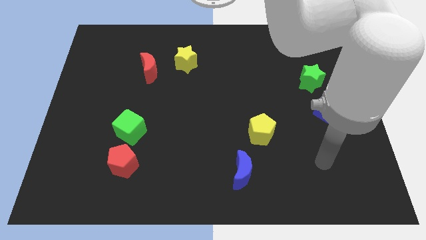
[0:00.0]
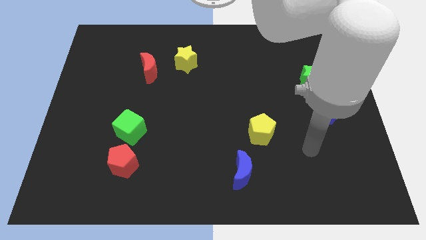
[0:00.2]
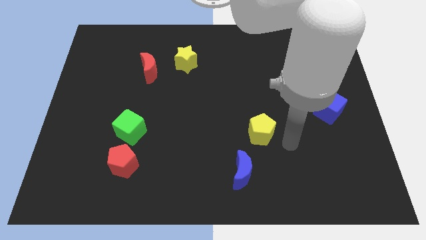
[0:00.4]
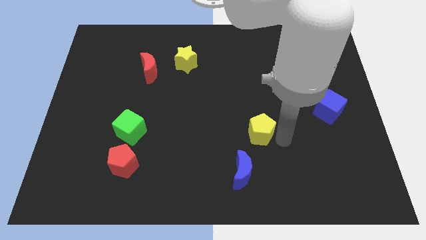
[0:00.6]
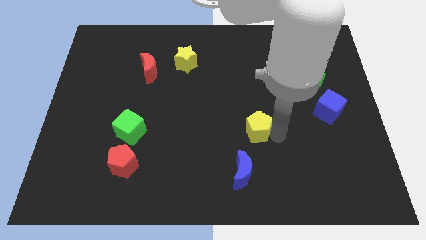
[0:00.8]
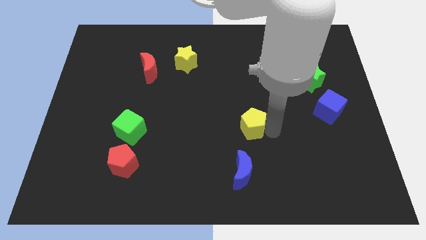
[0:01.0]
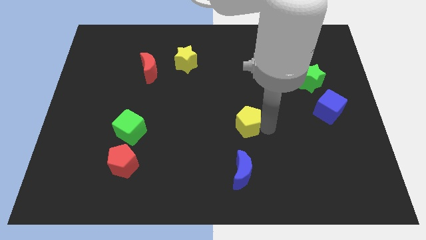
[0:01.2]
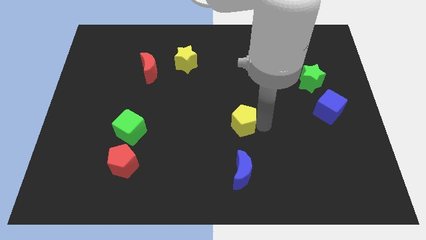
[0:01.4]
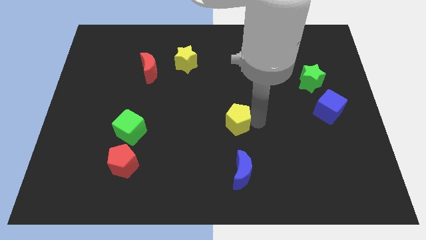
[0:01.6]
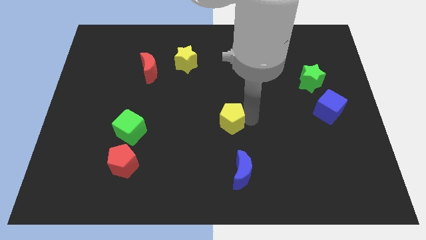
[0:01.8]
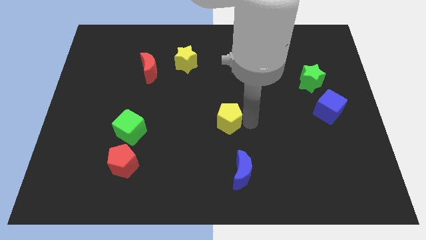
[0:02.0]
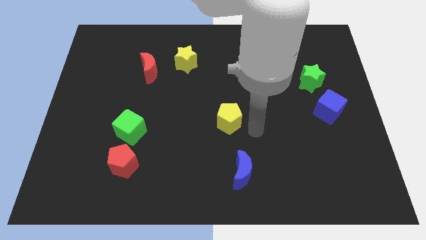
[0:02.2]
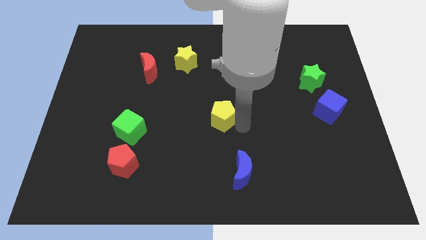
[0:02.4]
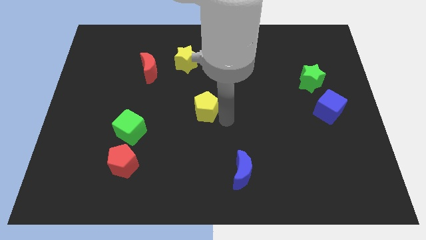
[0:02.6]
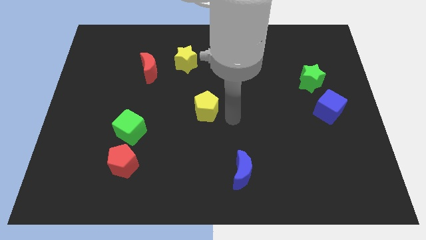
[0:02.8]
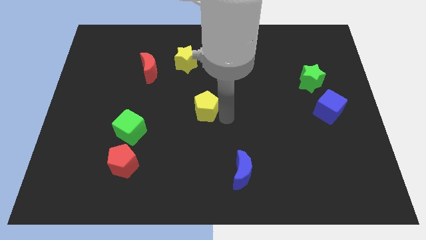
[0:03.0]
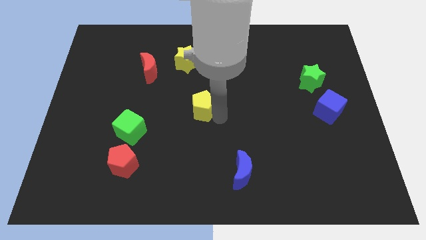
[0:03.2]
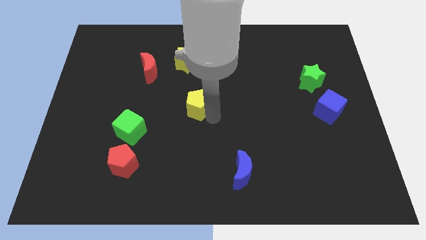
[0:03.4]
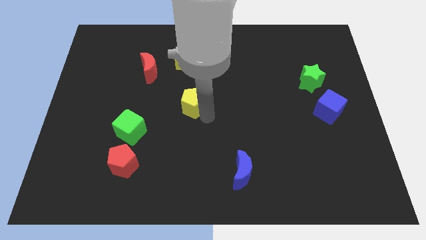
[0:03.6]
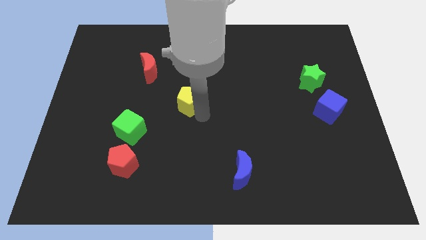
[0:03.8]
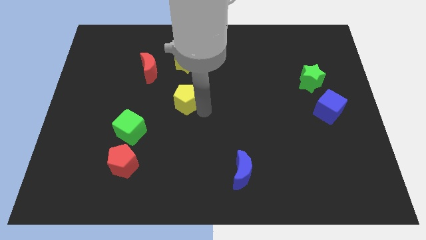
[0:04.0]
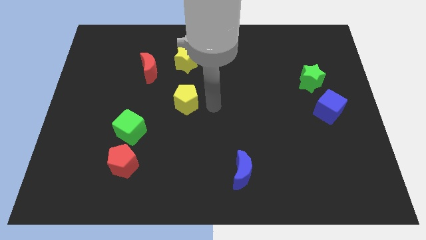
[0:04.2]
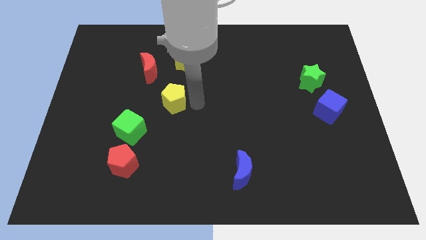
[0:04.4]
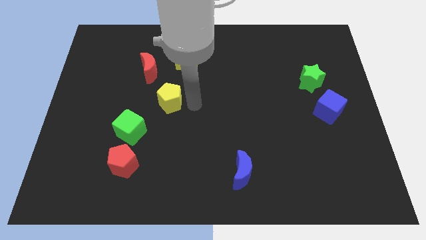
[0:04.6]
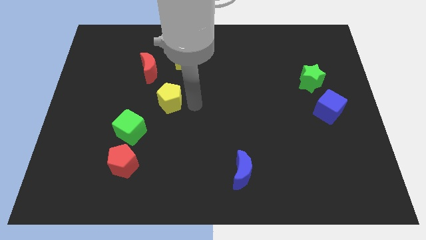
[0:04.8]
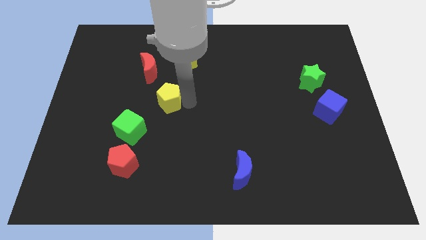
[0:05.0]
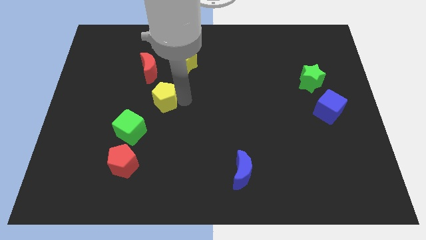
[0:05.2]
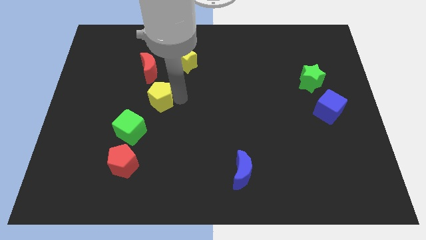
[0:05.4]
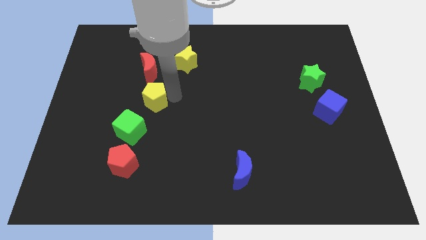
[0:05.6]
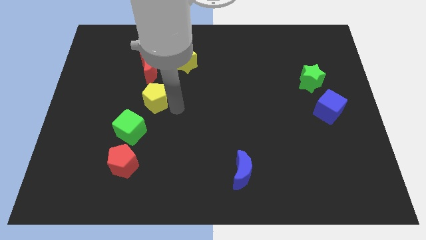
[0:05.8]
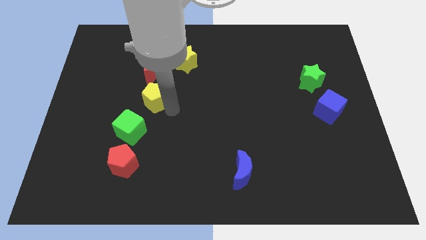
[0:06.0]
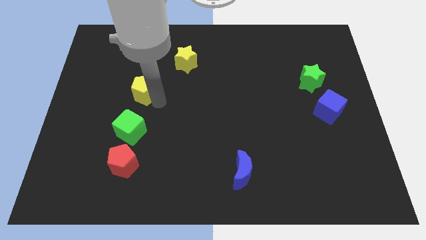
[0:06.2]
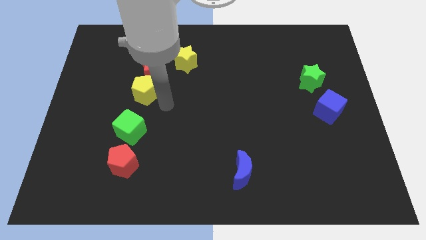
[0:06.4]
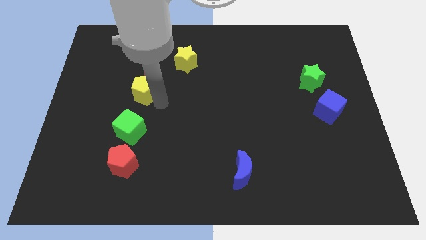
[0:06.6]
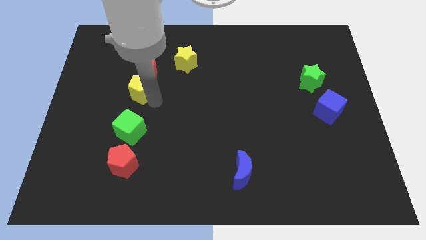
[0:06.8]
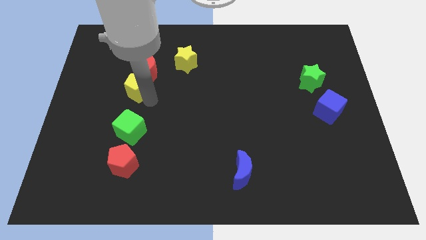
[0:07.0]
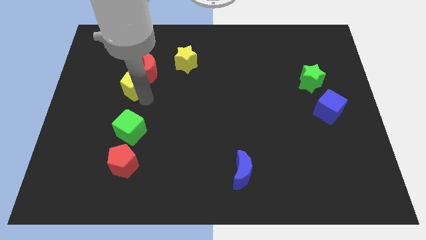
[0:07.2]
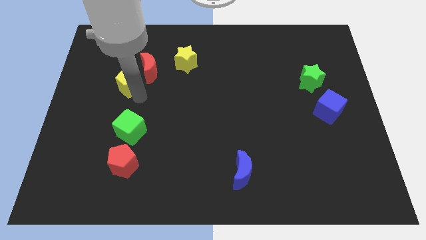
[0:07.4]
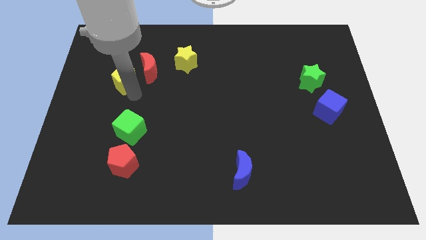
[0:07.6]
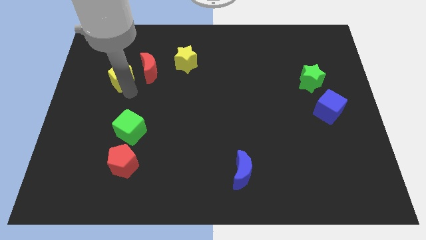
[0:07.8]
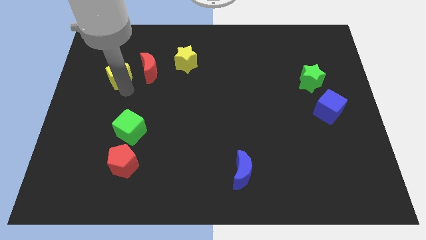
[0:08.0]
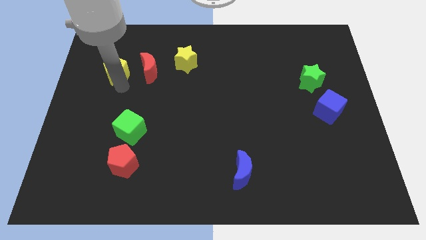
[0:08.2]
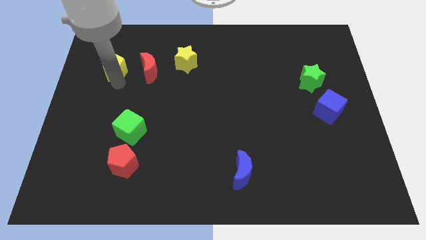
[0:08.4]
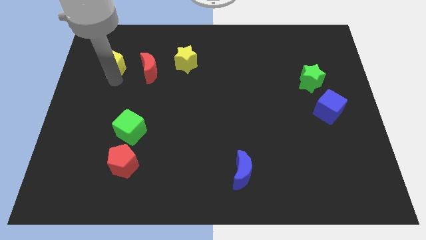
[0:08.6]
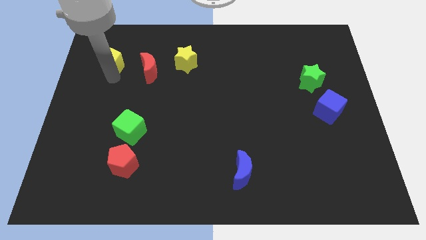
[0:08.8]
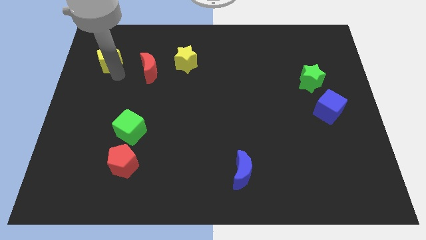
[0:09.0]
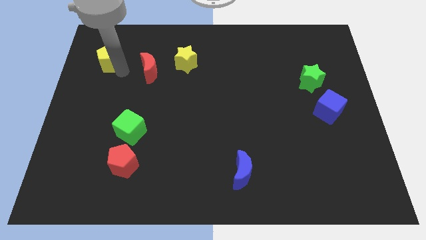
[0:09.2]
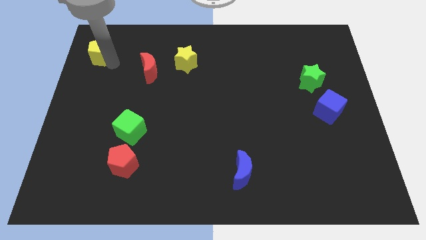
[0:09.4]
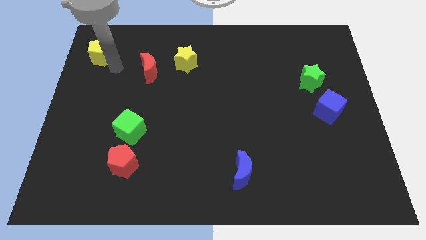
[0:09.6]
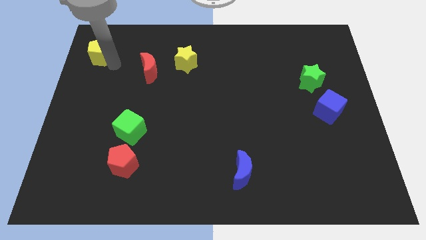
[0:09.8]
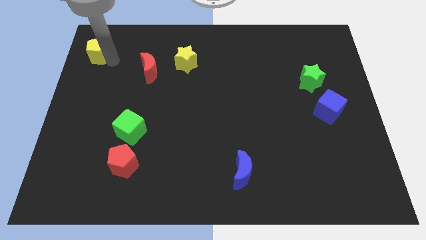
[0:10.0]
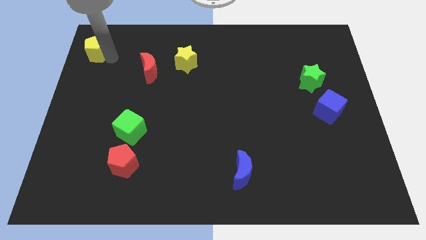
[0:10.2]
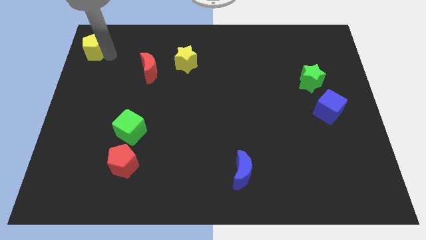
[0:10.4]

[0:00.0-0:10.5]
move the yellow pentagon to the top left corner

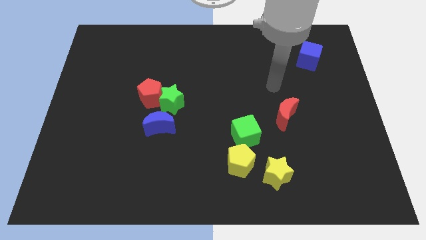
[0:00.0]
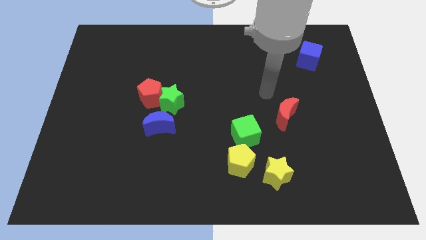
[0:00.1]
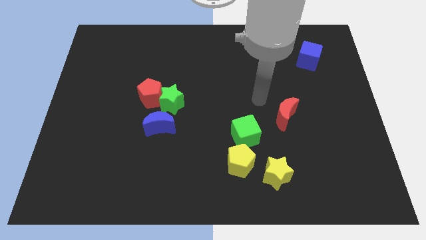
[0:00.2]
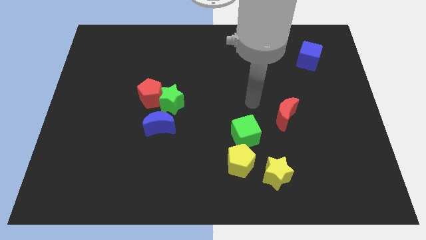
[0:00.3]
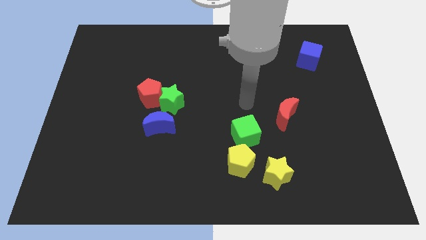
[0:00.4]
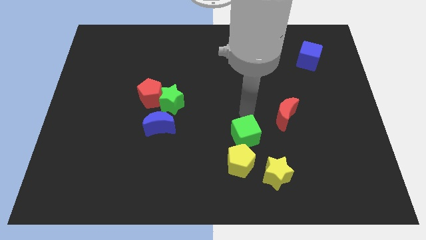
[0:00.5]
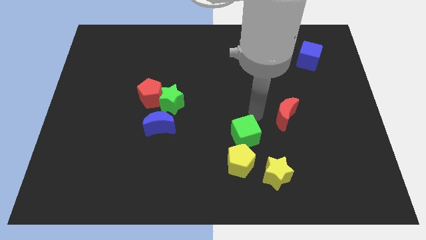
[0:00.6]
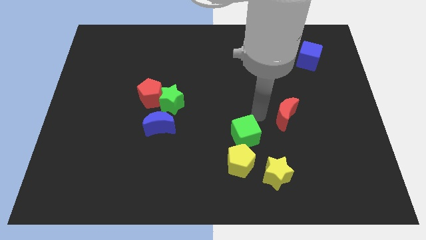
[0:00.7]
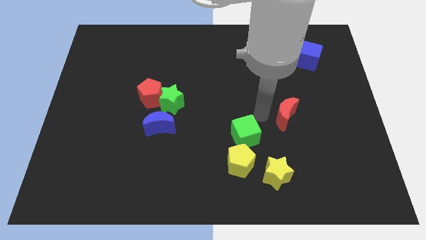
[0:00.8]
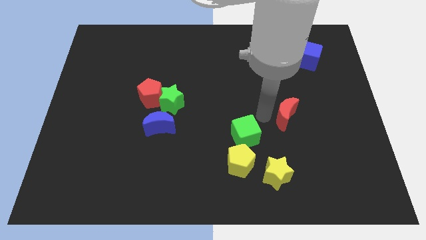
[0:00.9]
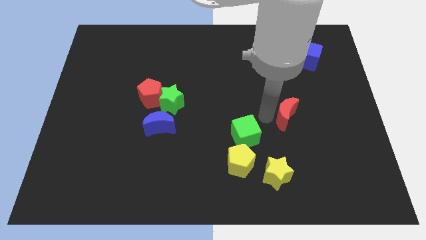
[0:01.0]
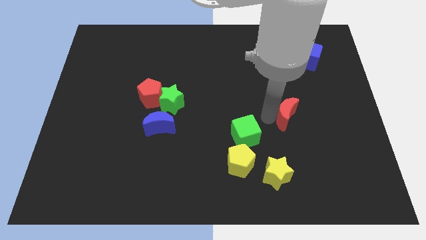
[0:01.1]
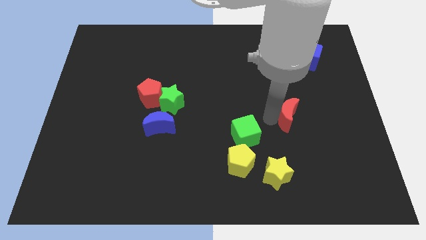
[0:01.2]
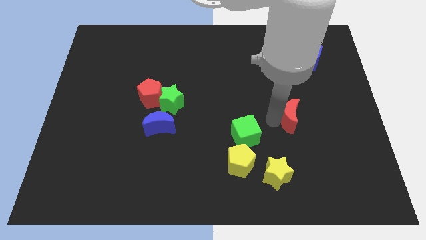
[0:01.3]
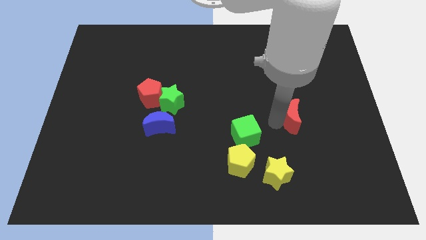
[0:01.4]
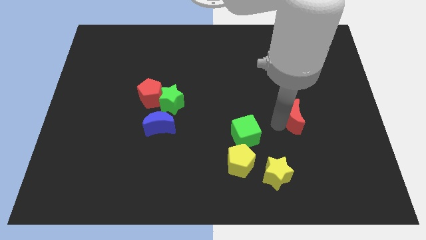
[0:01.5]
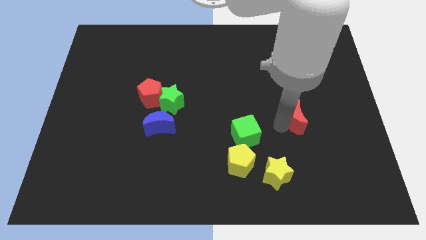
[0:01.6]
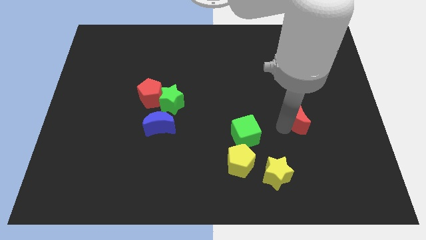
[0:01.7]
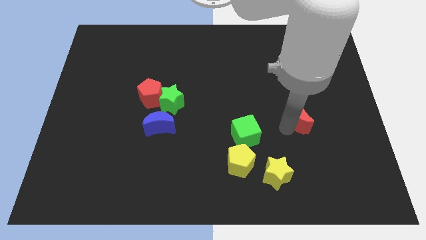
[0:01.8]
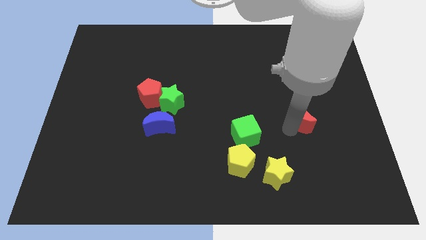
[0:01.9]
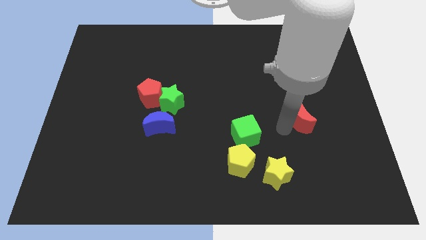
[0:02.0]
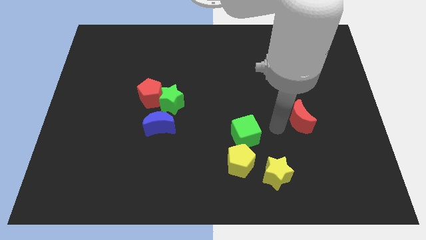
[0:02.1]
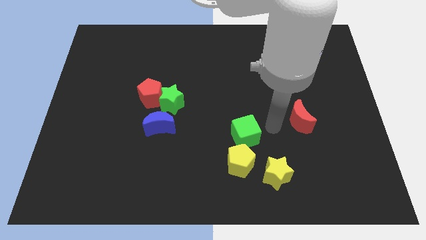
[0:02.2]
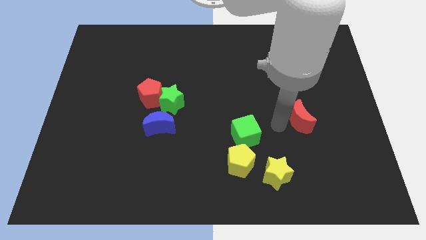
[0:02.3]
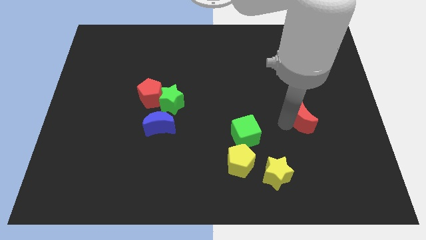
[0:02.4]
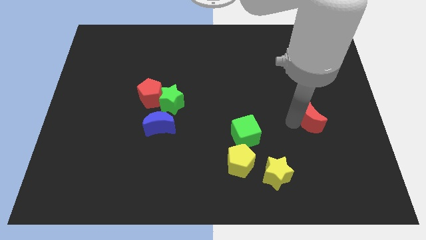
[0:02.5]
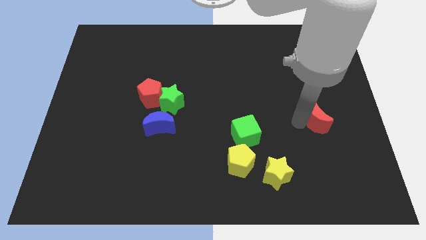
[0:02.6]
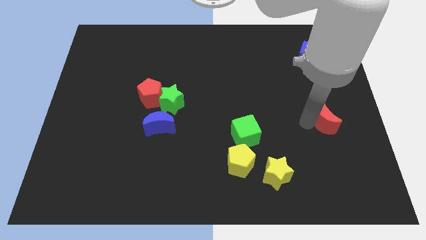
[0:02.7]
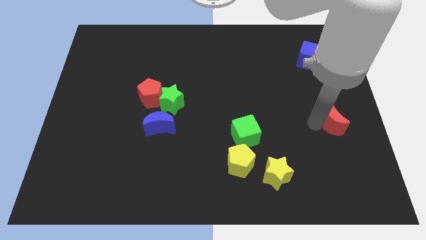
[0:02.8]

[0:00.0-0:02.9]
put the red moon to the right side
